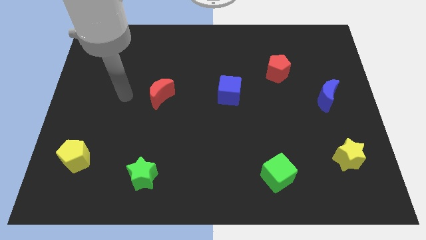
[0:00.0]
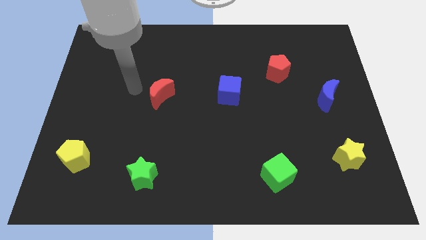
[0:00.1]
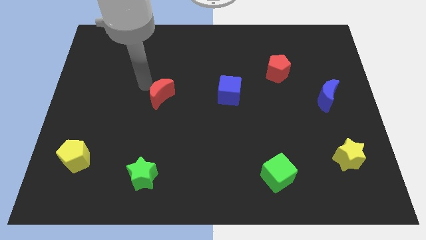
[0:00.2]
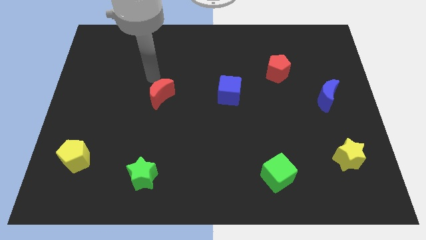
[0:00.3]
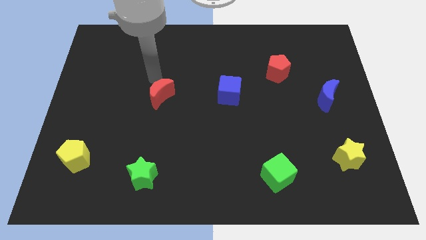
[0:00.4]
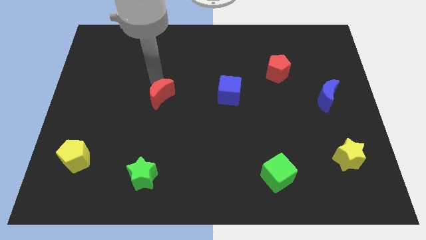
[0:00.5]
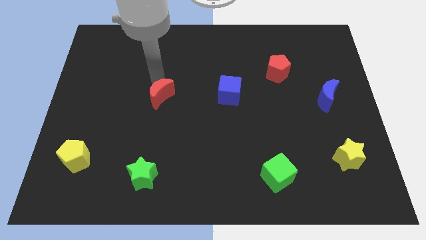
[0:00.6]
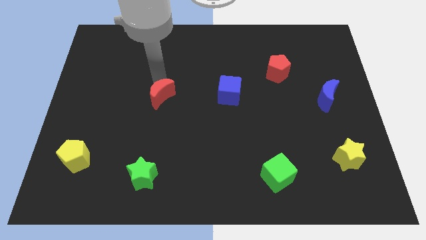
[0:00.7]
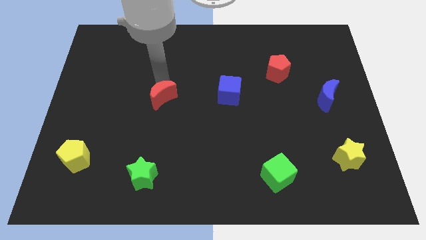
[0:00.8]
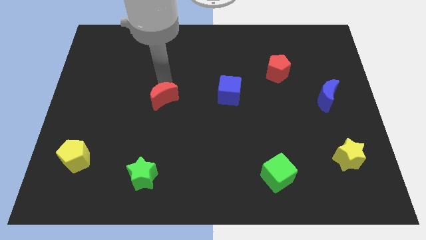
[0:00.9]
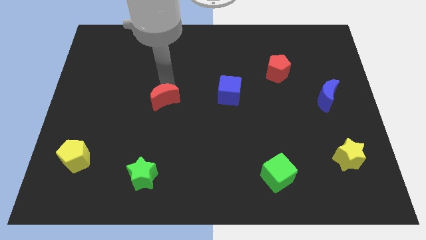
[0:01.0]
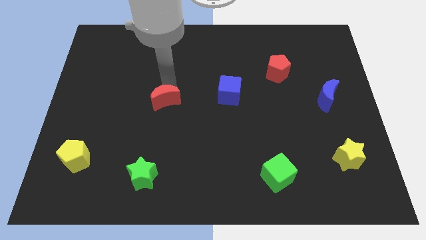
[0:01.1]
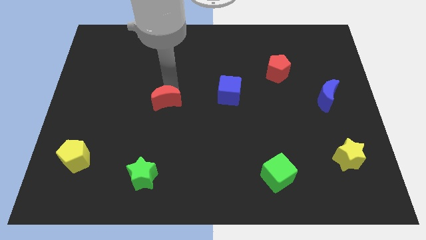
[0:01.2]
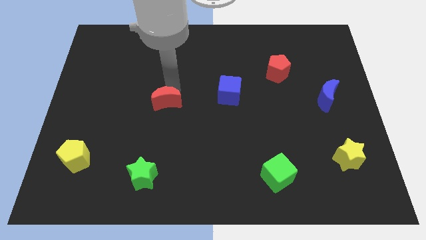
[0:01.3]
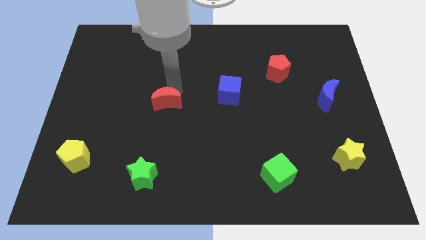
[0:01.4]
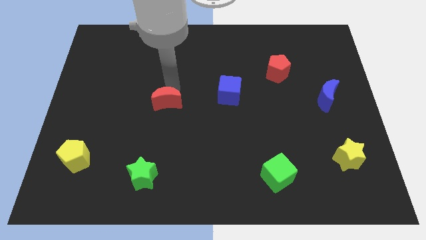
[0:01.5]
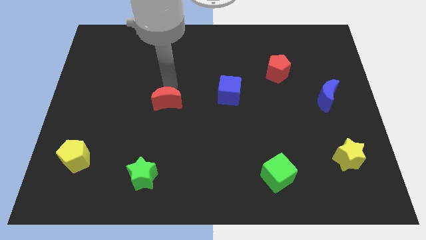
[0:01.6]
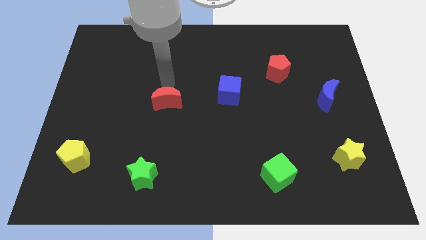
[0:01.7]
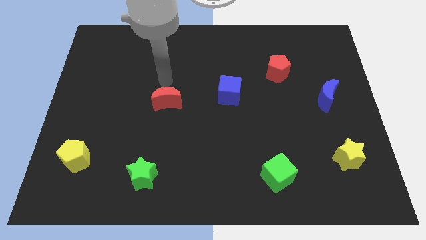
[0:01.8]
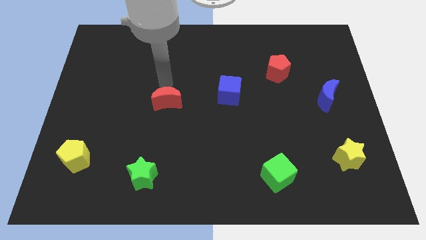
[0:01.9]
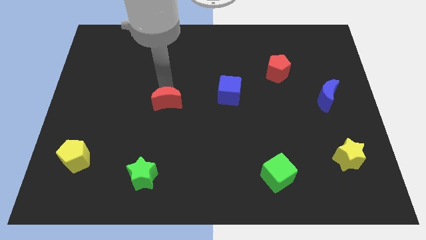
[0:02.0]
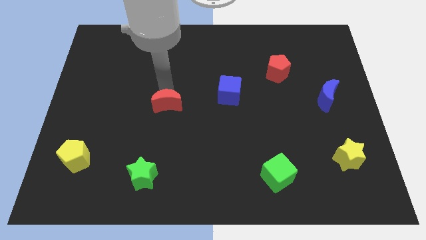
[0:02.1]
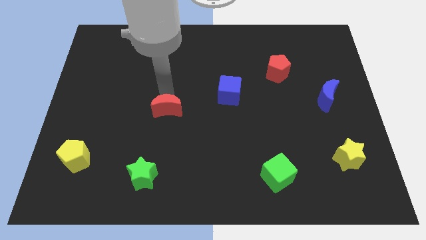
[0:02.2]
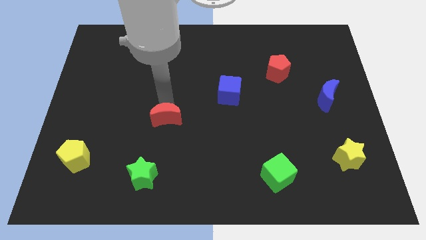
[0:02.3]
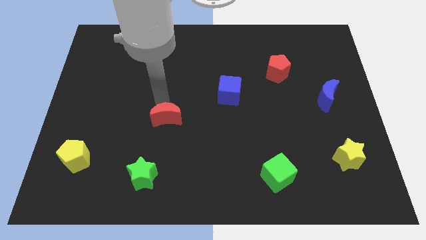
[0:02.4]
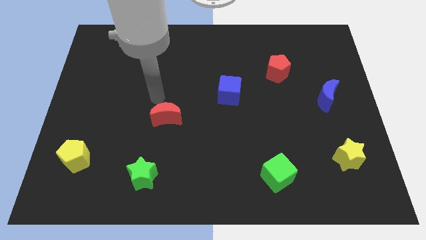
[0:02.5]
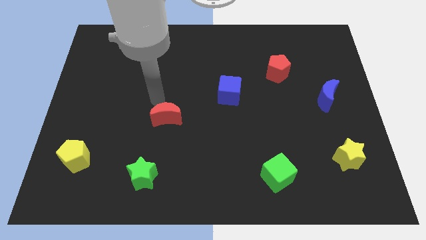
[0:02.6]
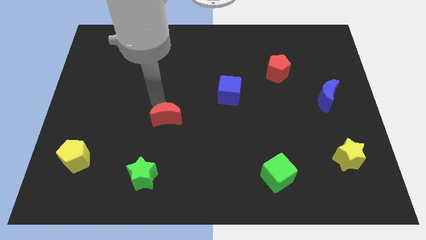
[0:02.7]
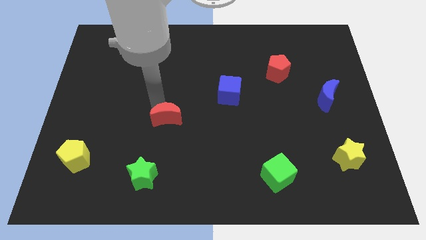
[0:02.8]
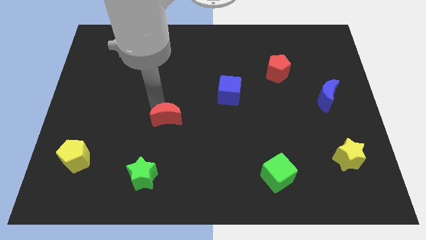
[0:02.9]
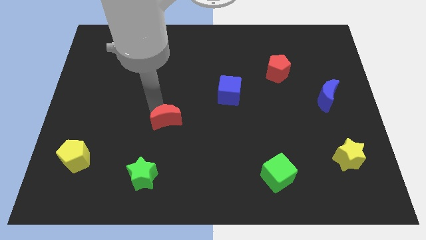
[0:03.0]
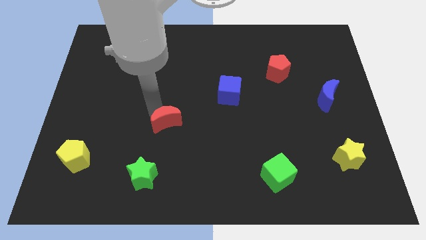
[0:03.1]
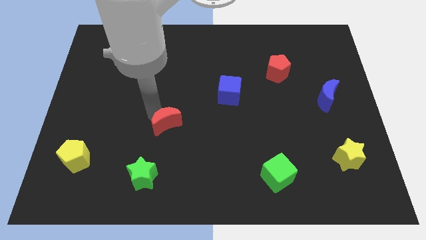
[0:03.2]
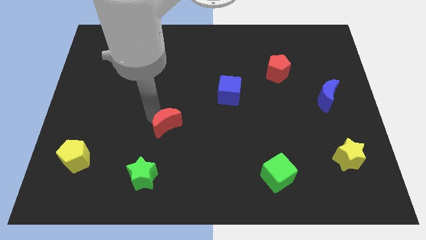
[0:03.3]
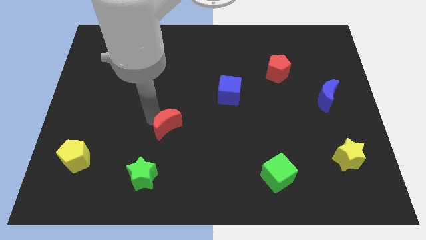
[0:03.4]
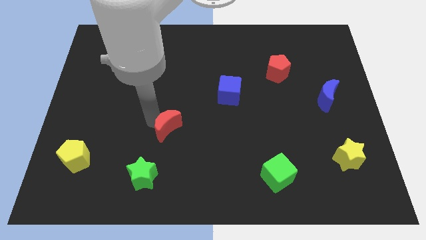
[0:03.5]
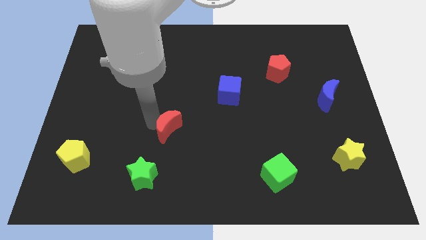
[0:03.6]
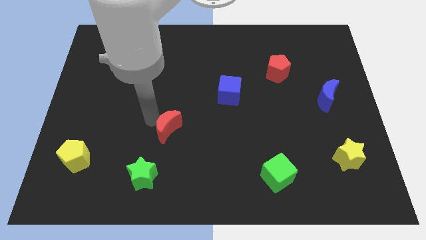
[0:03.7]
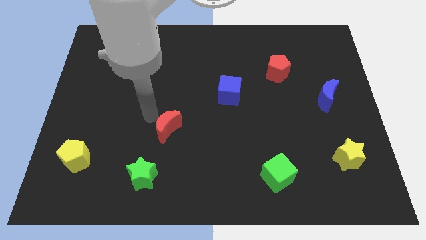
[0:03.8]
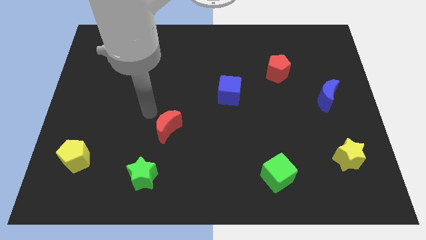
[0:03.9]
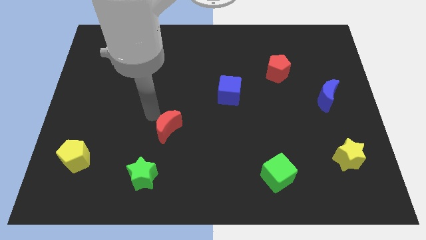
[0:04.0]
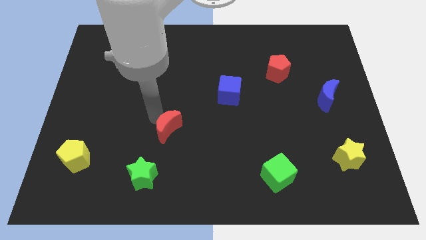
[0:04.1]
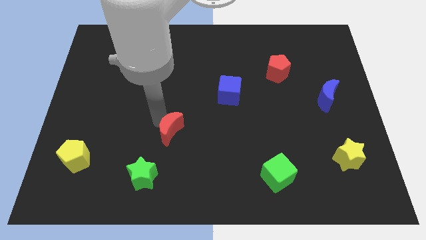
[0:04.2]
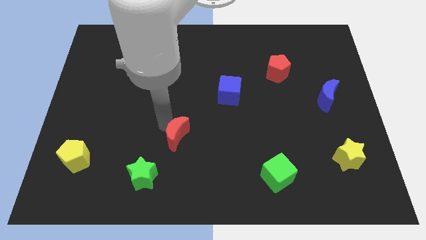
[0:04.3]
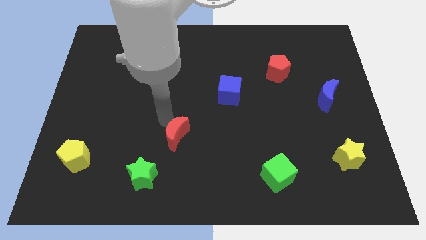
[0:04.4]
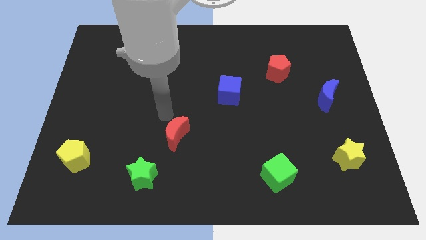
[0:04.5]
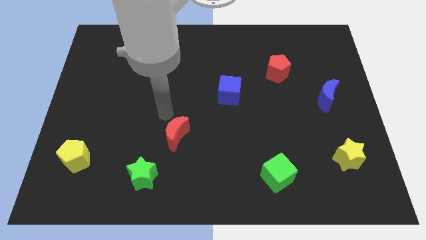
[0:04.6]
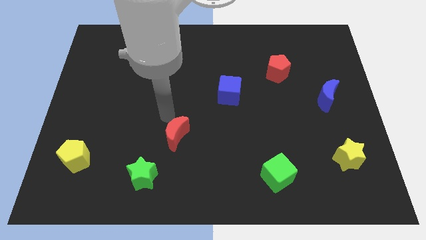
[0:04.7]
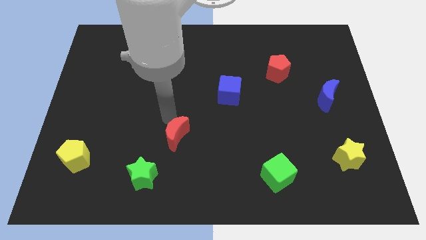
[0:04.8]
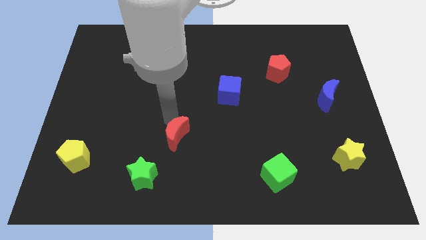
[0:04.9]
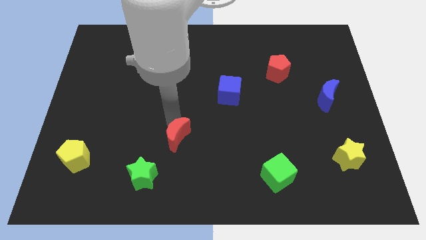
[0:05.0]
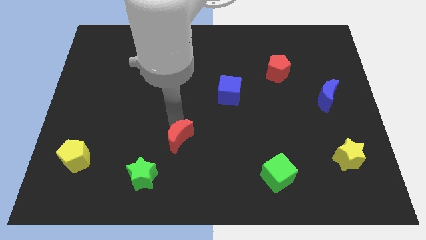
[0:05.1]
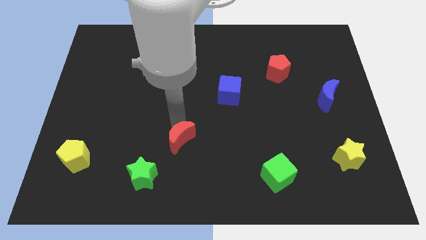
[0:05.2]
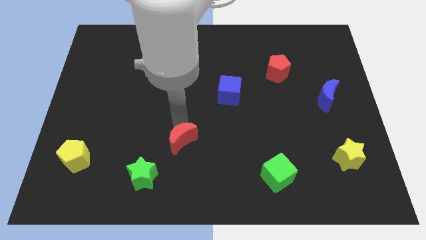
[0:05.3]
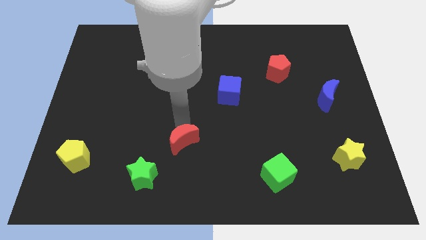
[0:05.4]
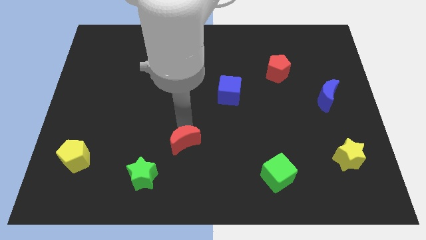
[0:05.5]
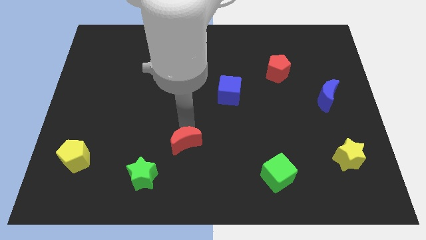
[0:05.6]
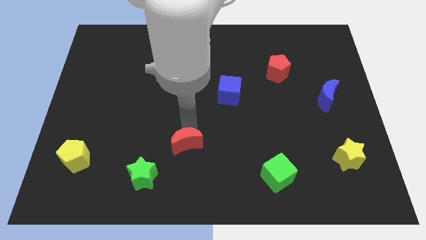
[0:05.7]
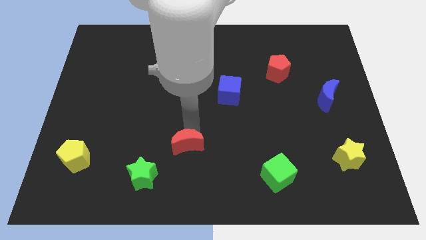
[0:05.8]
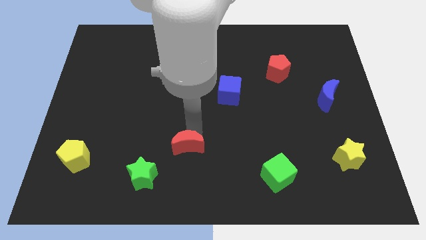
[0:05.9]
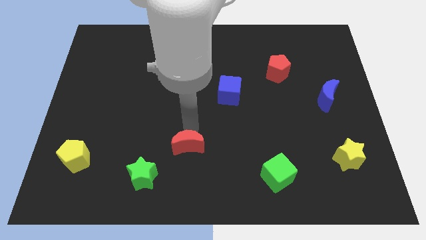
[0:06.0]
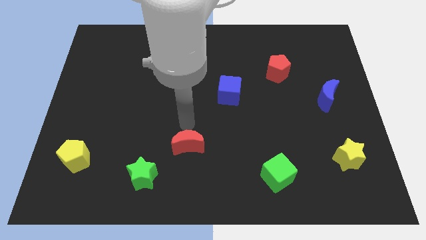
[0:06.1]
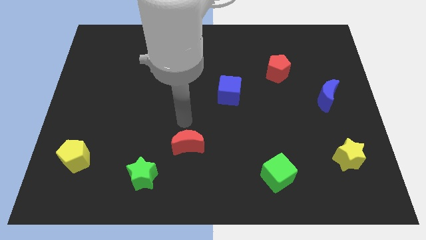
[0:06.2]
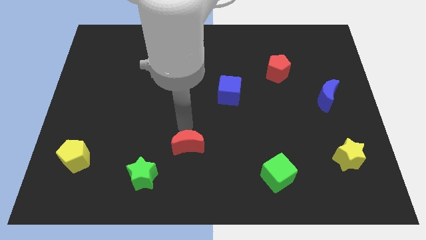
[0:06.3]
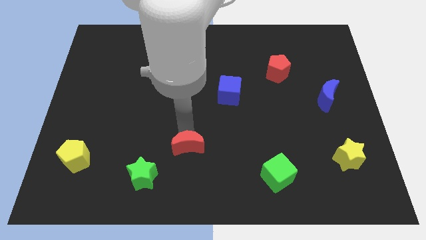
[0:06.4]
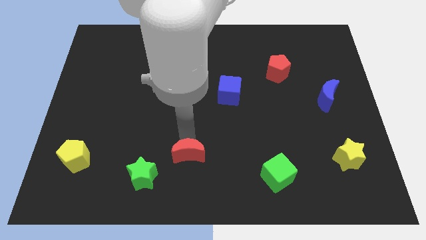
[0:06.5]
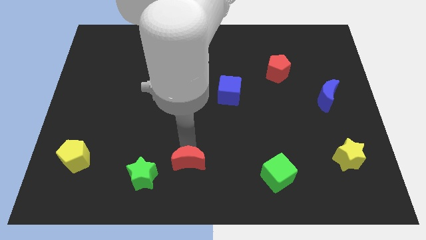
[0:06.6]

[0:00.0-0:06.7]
push the red moon right of the green star

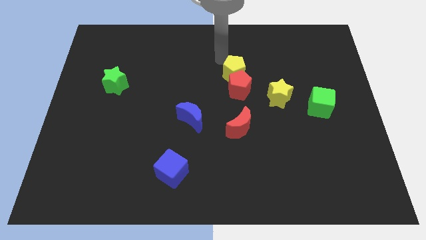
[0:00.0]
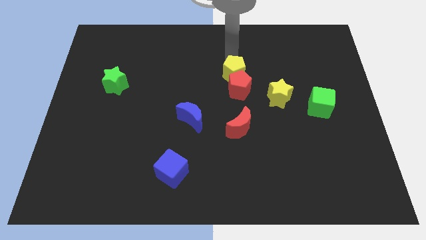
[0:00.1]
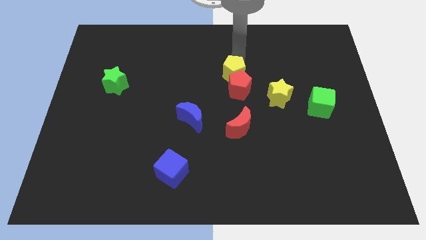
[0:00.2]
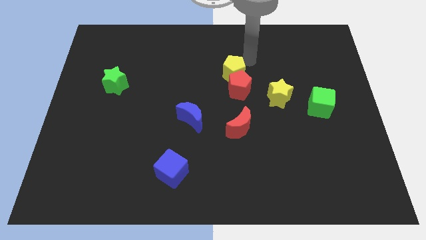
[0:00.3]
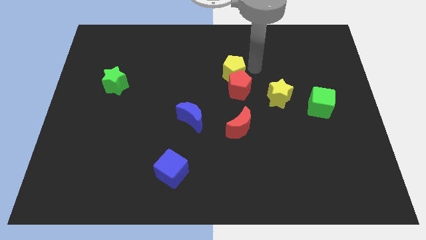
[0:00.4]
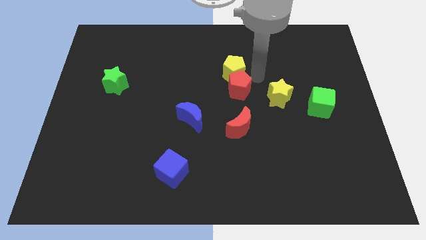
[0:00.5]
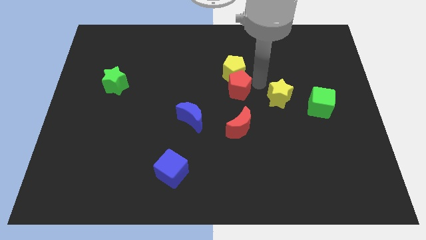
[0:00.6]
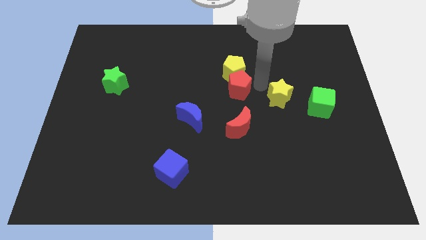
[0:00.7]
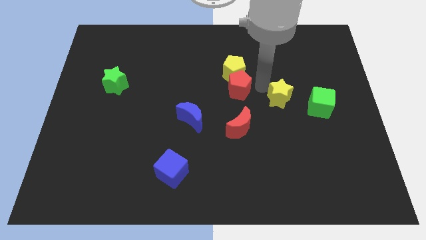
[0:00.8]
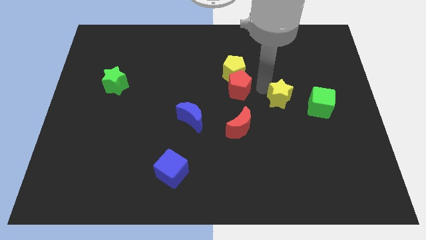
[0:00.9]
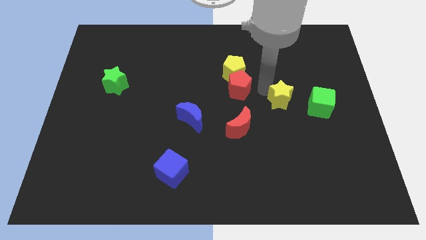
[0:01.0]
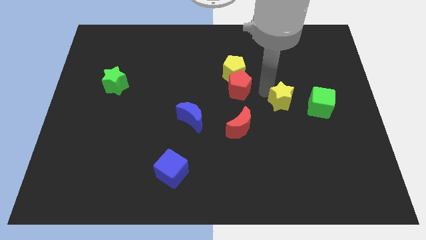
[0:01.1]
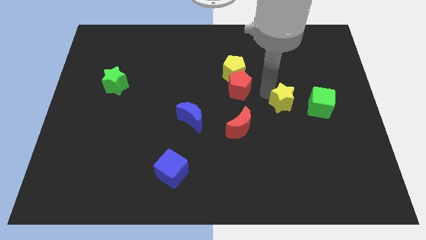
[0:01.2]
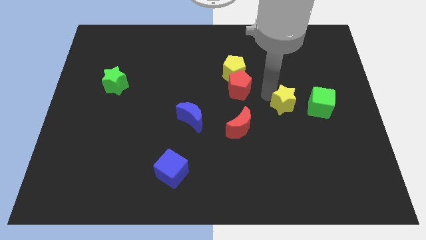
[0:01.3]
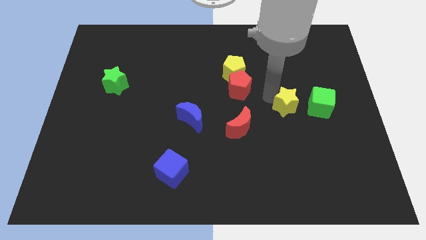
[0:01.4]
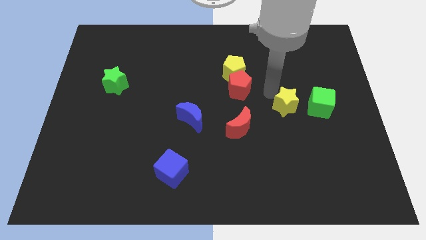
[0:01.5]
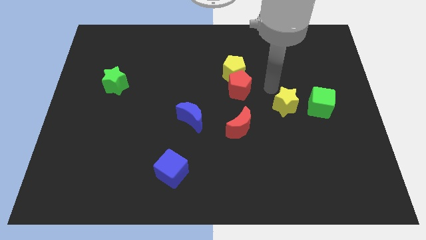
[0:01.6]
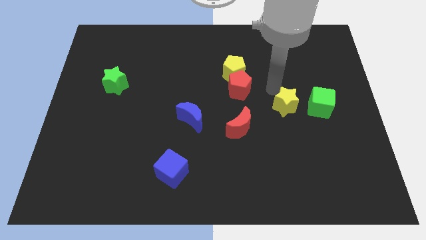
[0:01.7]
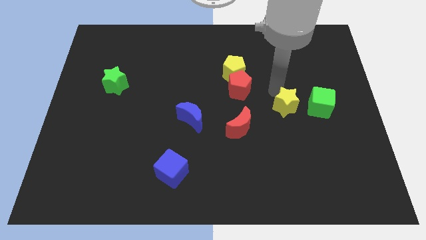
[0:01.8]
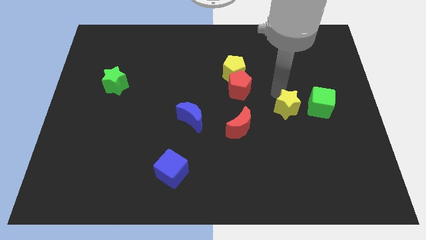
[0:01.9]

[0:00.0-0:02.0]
slide the yellow star to the bottom left side of the green cube
